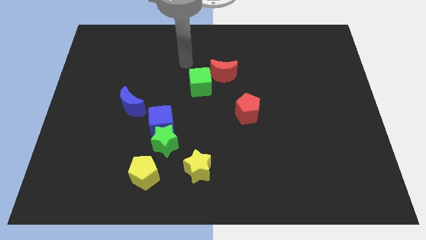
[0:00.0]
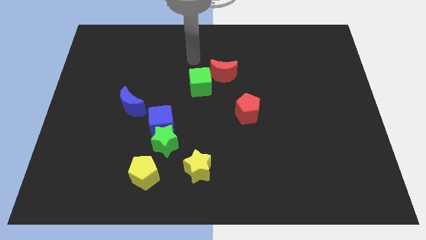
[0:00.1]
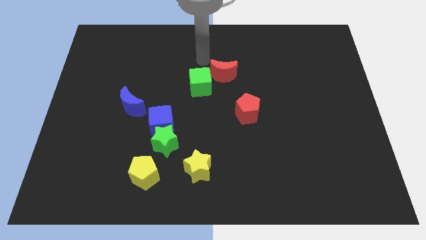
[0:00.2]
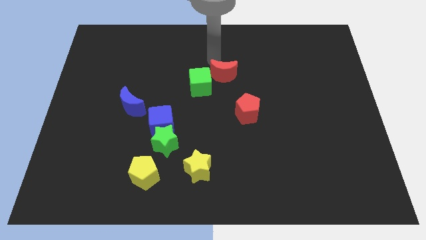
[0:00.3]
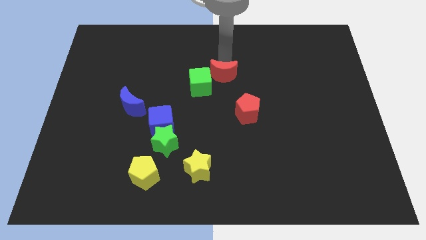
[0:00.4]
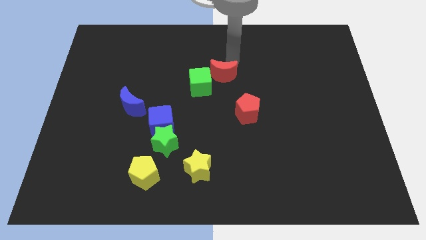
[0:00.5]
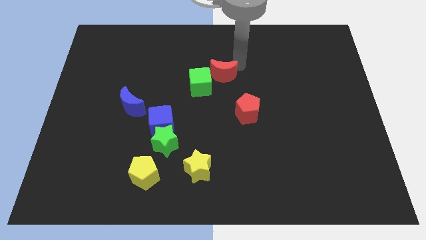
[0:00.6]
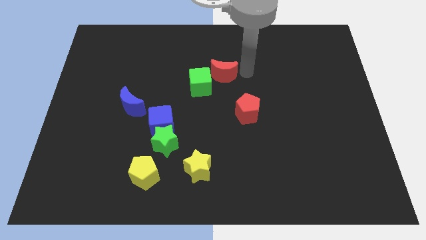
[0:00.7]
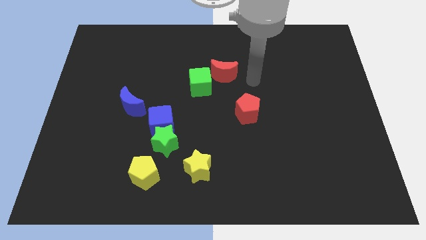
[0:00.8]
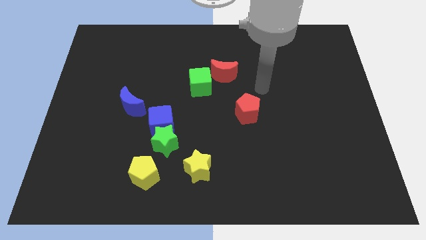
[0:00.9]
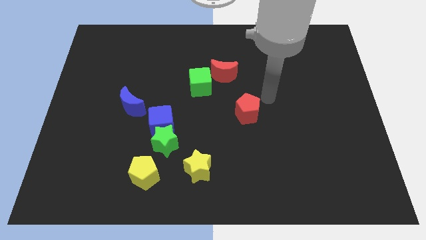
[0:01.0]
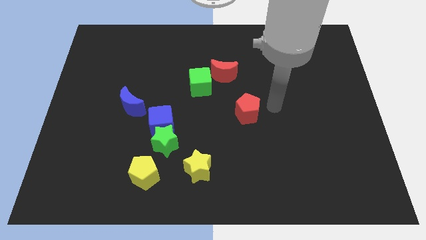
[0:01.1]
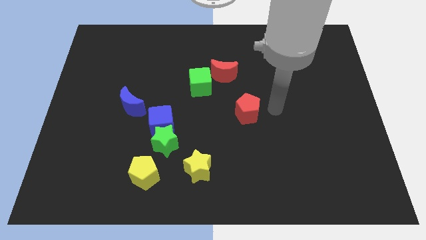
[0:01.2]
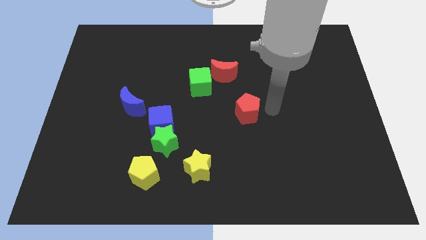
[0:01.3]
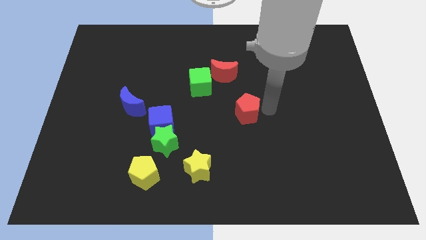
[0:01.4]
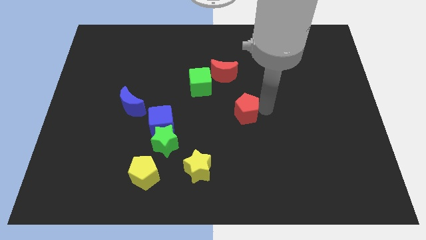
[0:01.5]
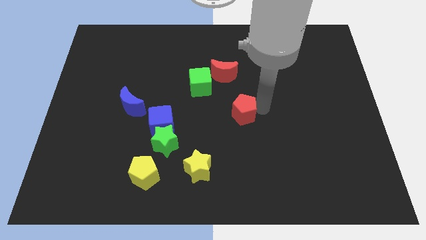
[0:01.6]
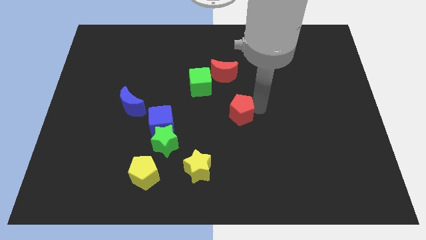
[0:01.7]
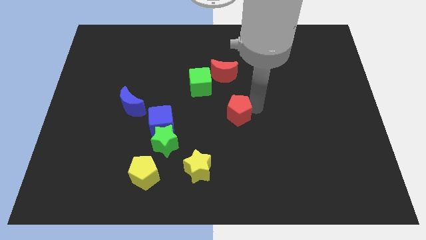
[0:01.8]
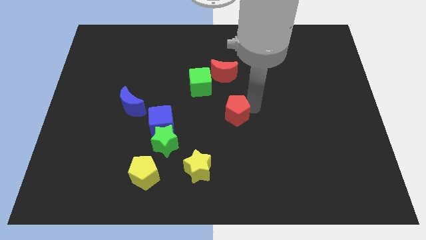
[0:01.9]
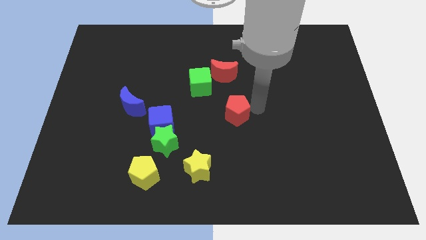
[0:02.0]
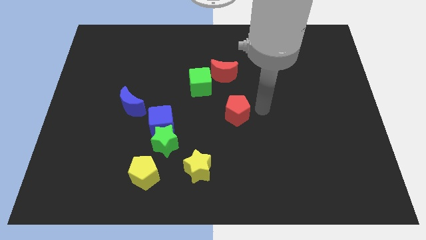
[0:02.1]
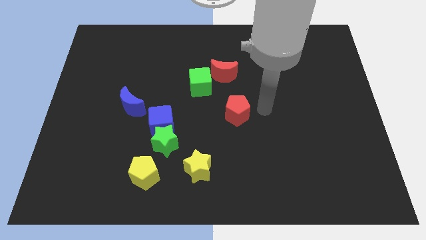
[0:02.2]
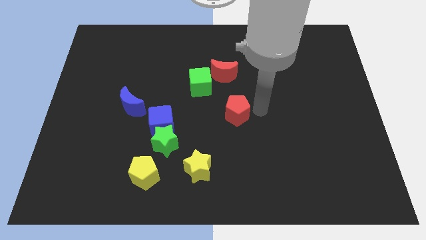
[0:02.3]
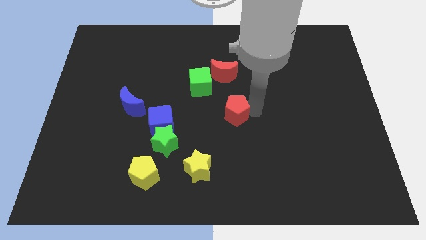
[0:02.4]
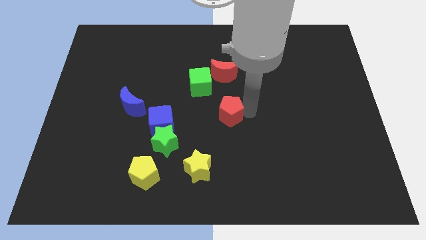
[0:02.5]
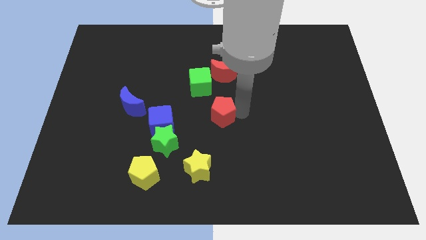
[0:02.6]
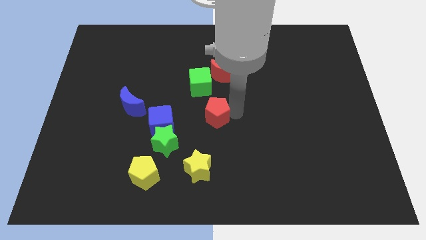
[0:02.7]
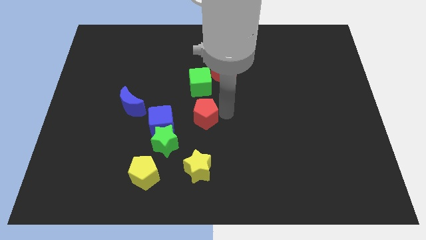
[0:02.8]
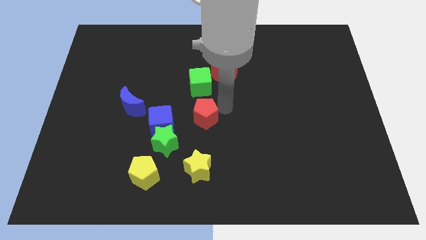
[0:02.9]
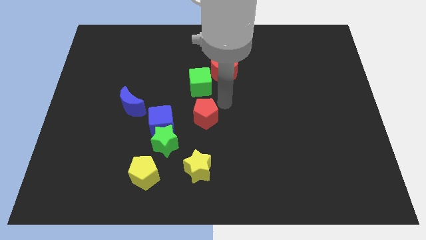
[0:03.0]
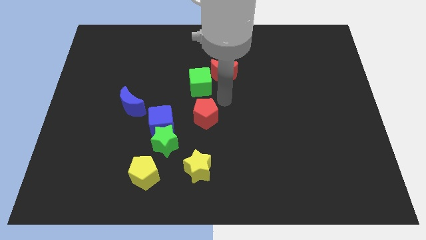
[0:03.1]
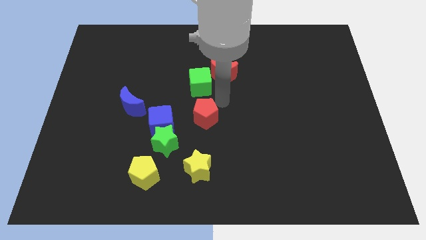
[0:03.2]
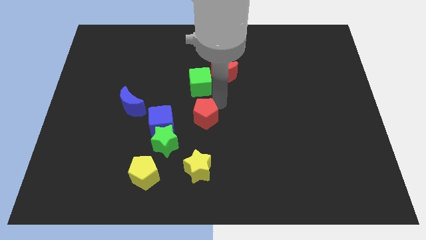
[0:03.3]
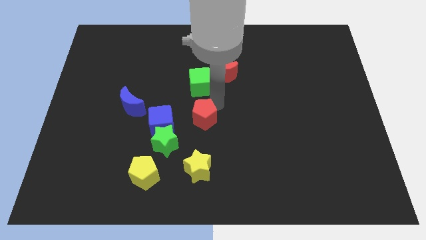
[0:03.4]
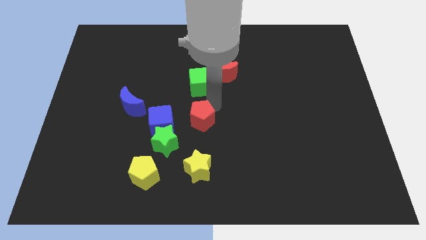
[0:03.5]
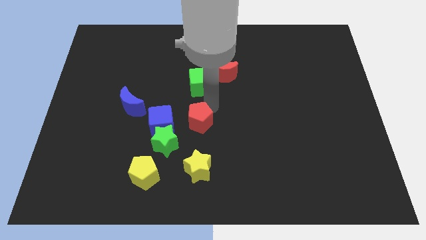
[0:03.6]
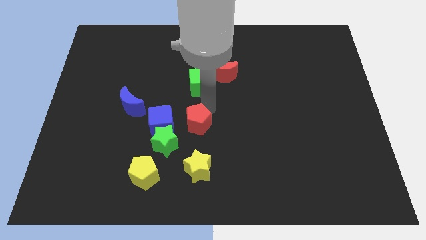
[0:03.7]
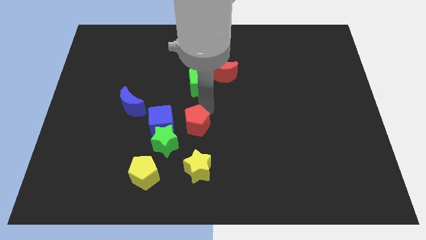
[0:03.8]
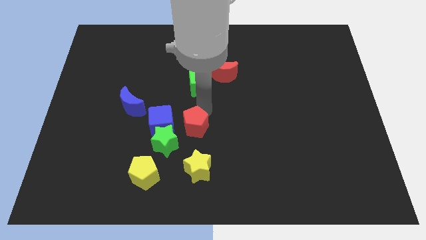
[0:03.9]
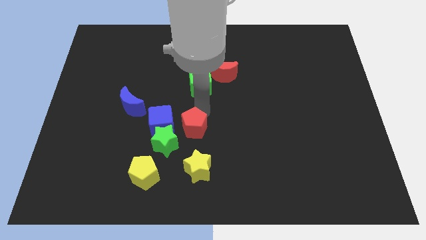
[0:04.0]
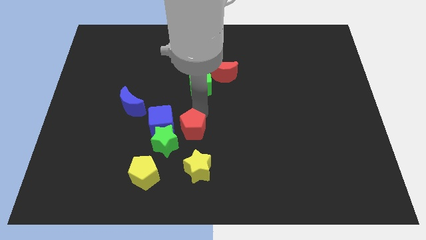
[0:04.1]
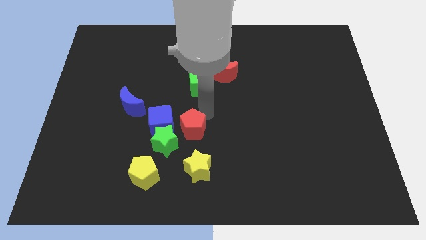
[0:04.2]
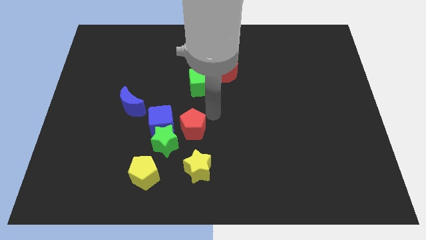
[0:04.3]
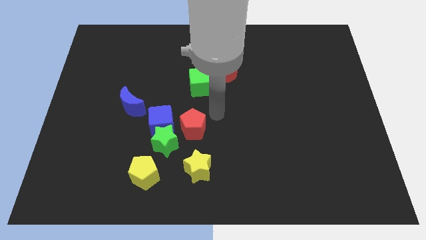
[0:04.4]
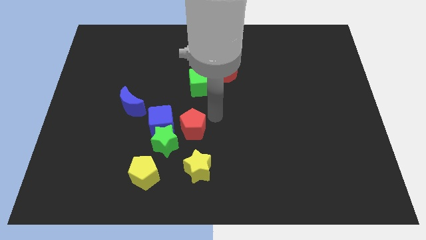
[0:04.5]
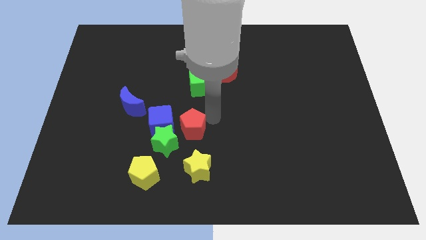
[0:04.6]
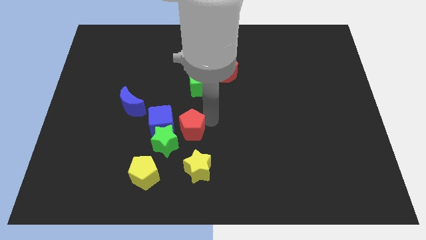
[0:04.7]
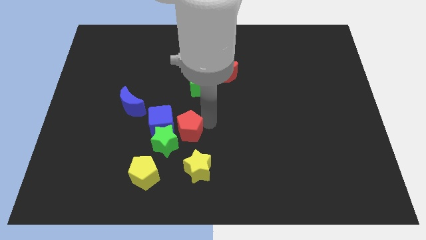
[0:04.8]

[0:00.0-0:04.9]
move the red pentagon next to the green star

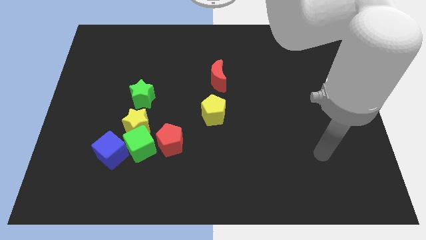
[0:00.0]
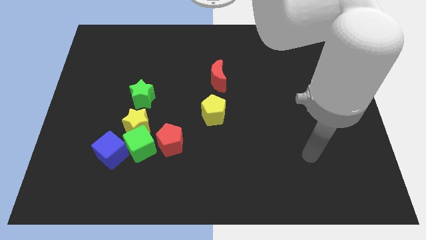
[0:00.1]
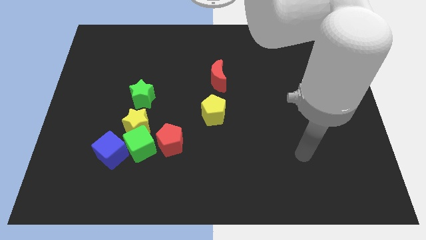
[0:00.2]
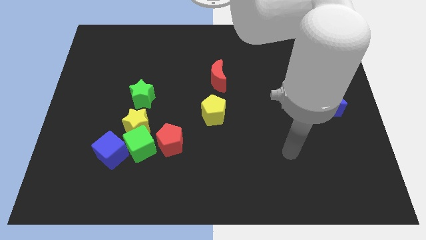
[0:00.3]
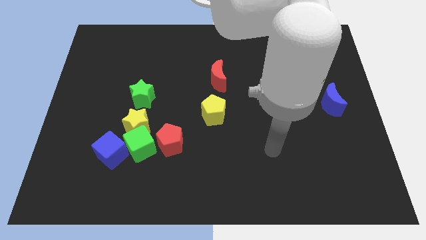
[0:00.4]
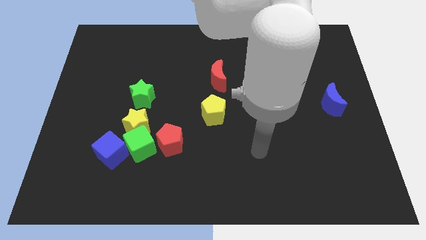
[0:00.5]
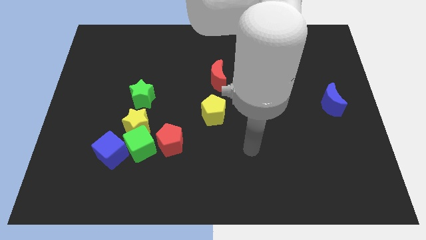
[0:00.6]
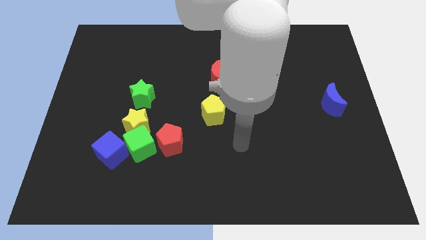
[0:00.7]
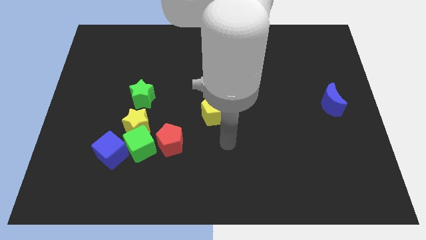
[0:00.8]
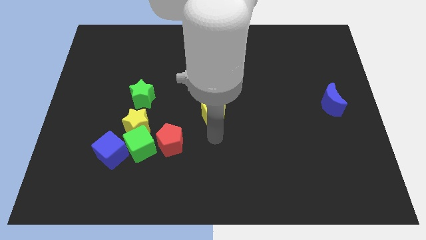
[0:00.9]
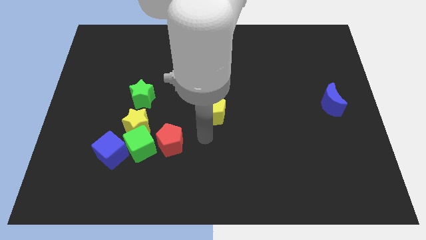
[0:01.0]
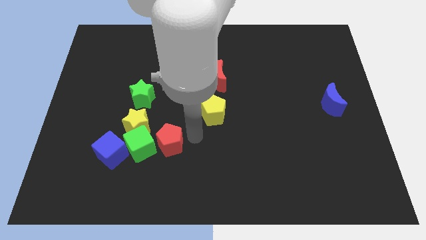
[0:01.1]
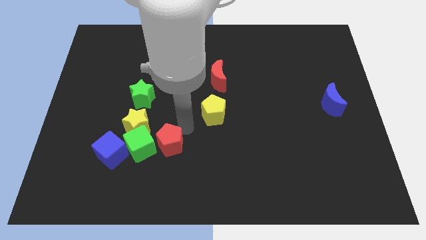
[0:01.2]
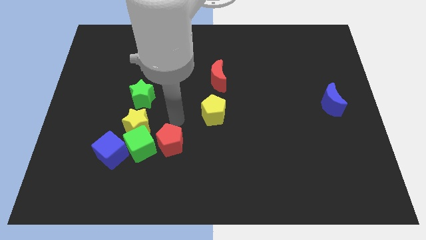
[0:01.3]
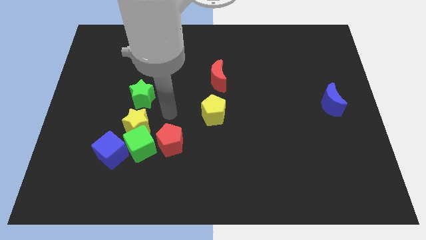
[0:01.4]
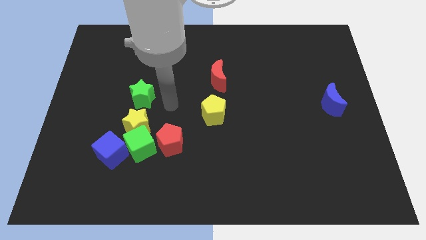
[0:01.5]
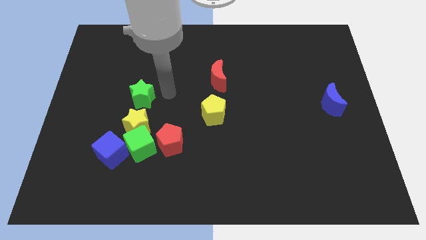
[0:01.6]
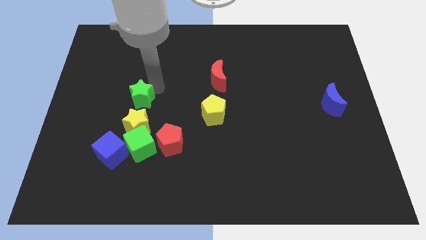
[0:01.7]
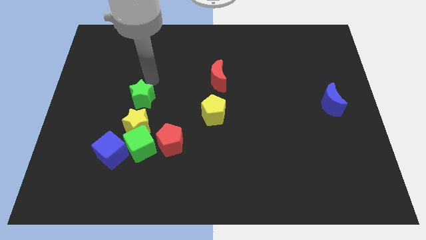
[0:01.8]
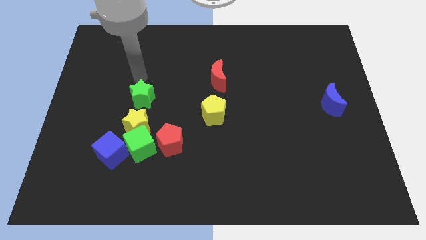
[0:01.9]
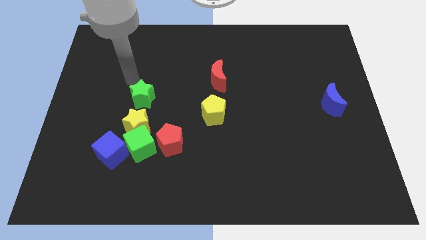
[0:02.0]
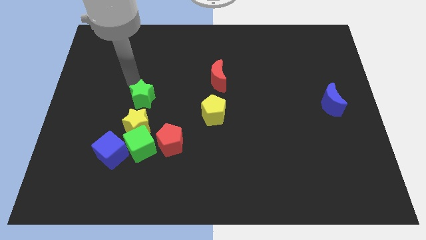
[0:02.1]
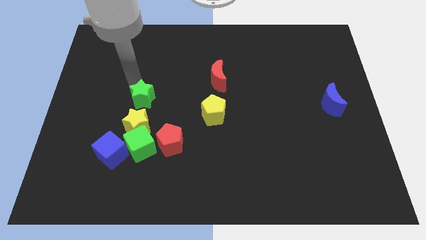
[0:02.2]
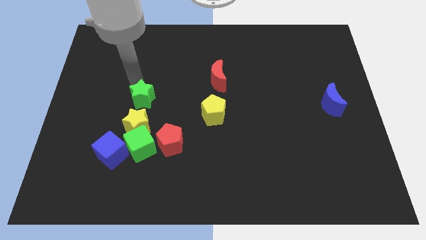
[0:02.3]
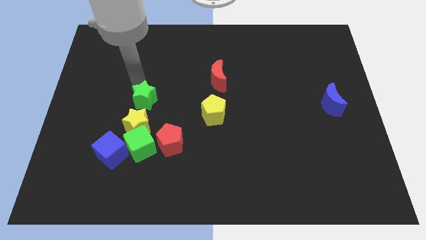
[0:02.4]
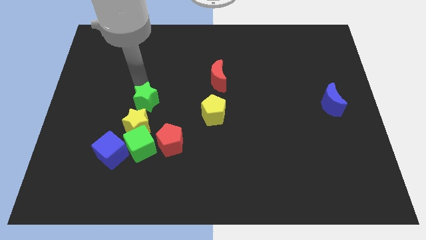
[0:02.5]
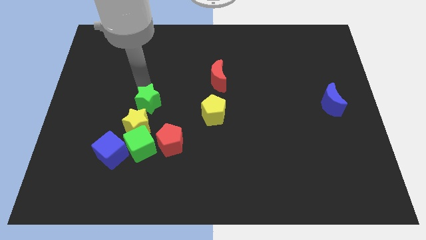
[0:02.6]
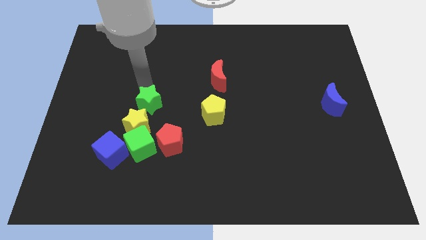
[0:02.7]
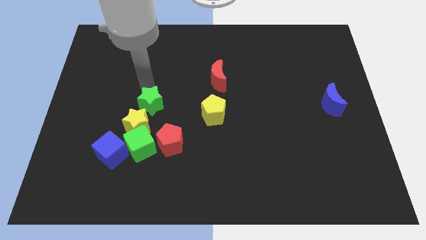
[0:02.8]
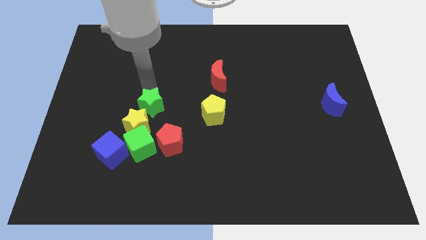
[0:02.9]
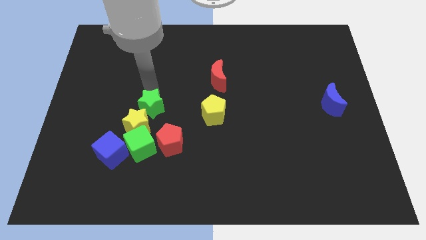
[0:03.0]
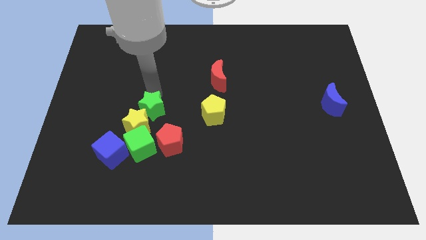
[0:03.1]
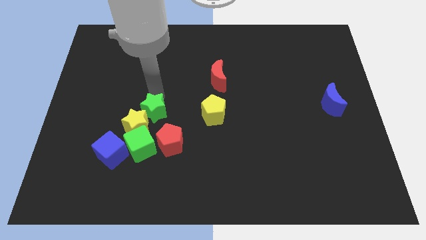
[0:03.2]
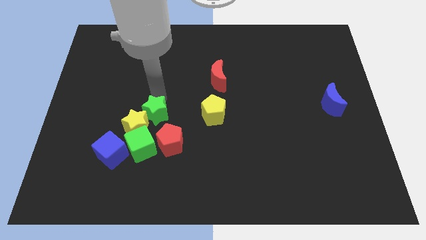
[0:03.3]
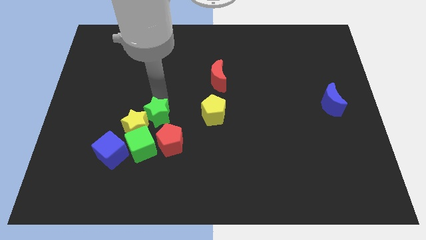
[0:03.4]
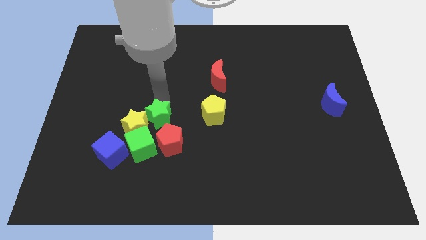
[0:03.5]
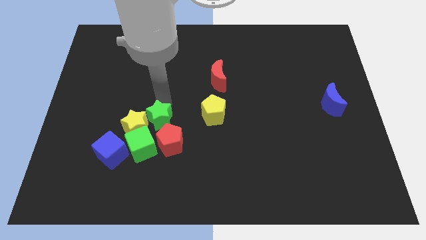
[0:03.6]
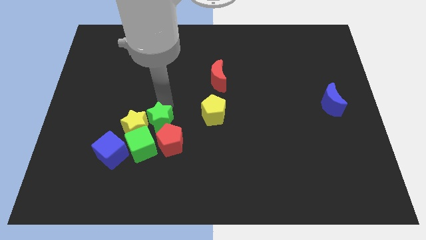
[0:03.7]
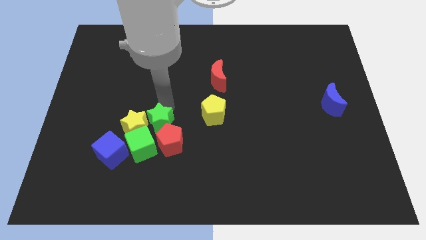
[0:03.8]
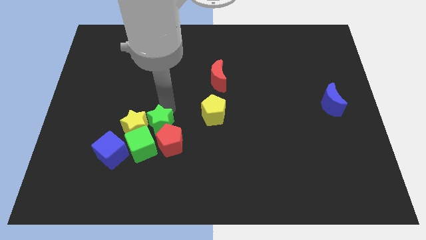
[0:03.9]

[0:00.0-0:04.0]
move the green star towards the red pentagon
